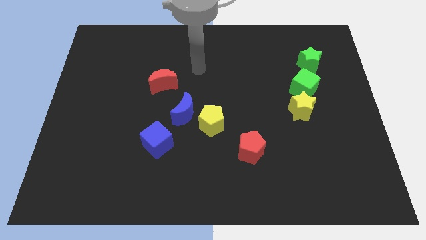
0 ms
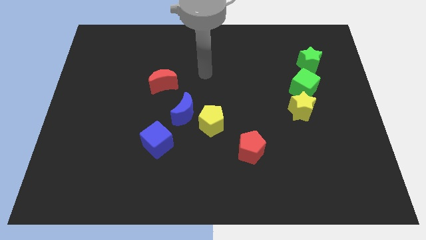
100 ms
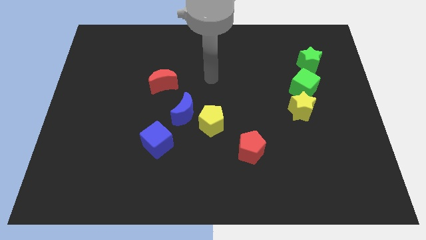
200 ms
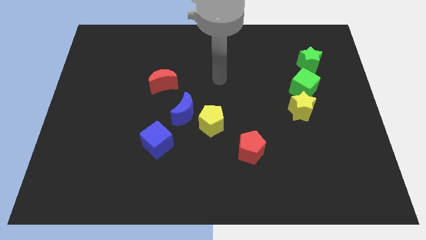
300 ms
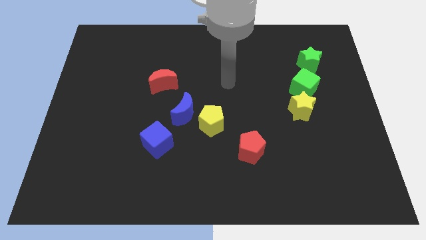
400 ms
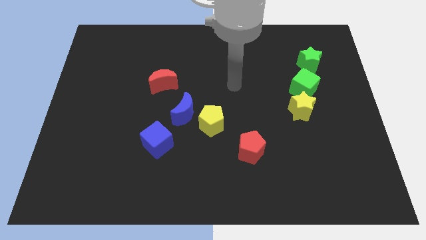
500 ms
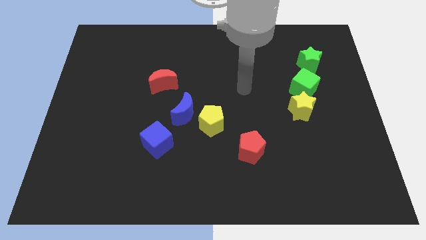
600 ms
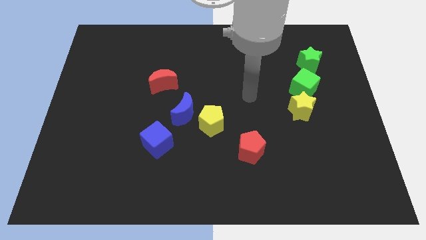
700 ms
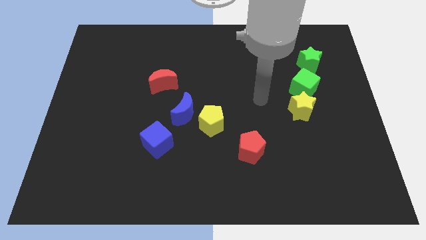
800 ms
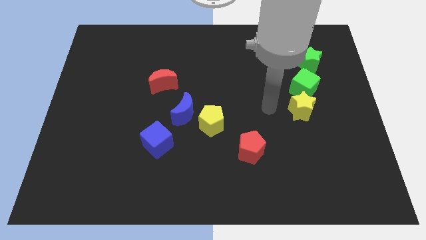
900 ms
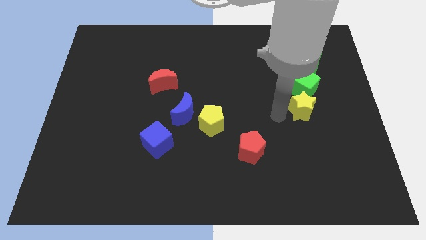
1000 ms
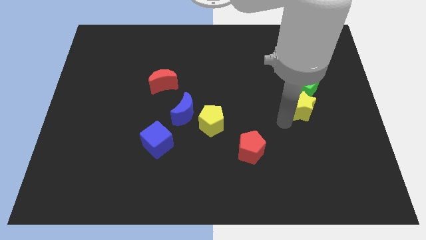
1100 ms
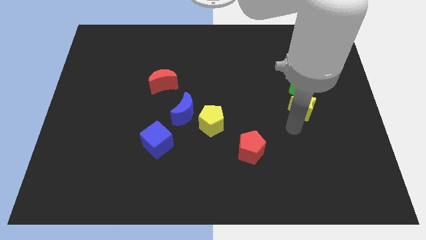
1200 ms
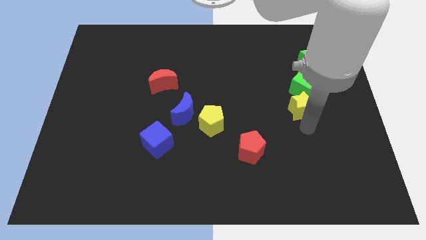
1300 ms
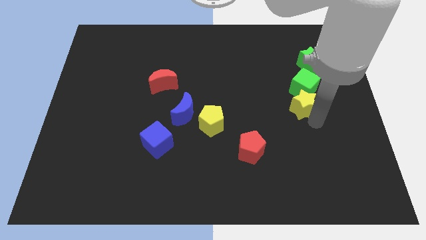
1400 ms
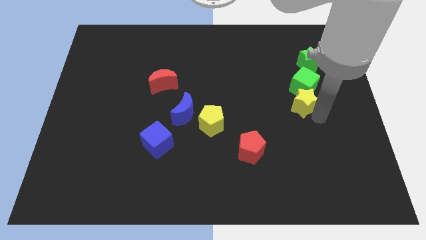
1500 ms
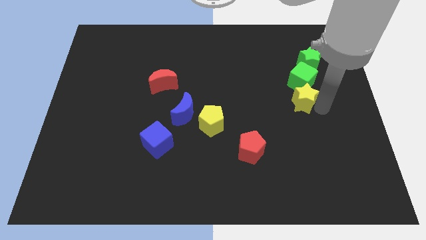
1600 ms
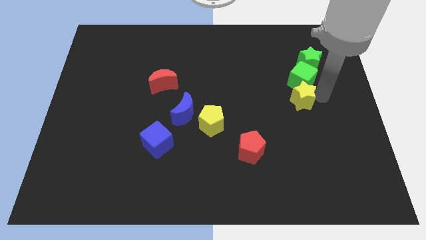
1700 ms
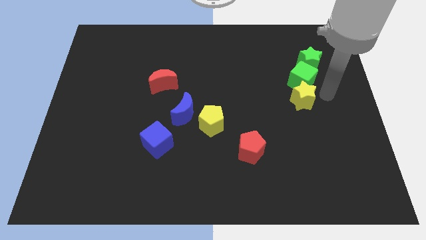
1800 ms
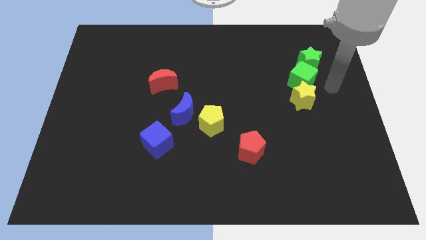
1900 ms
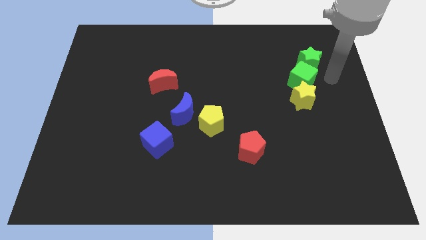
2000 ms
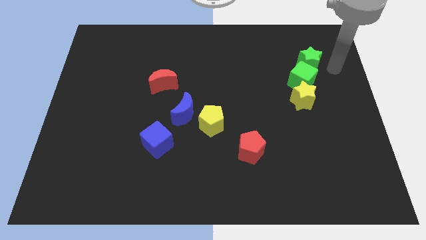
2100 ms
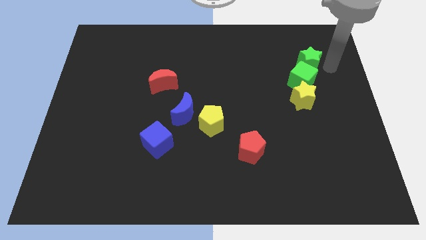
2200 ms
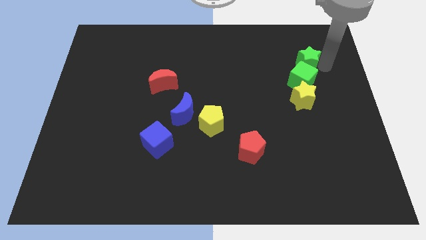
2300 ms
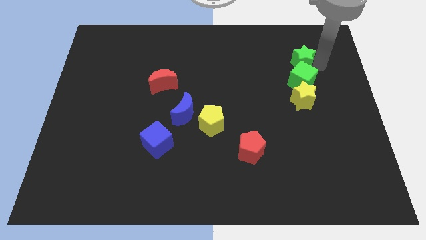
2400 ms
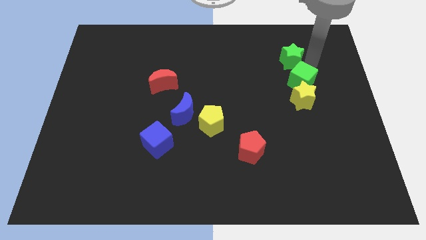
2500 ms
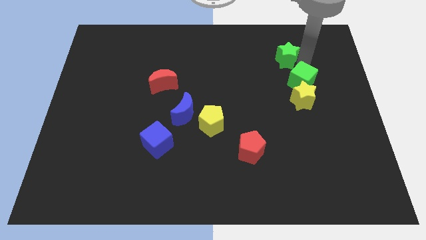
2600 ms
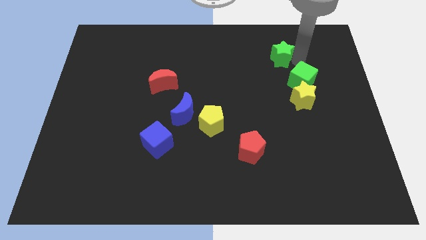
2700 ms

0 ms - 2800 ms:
slightly push the green star left

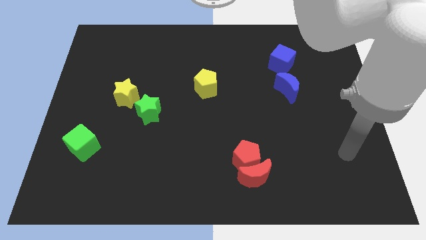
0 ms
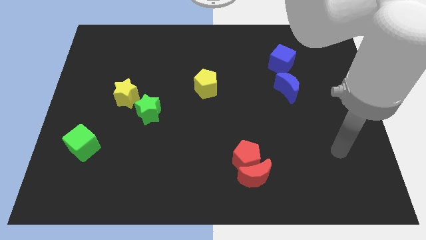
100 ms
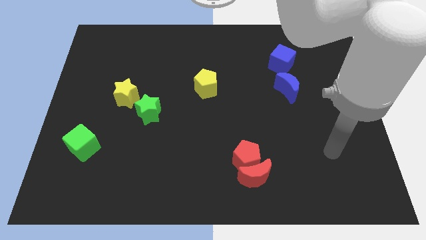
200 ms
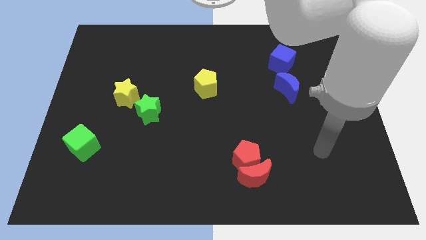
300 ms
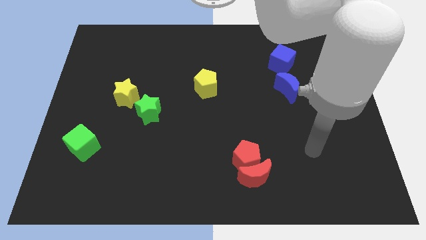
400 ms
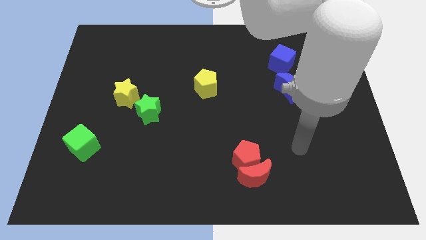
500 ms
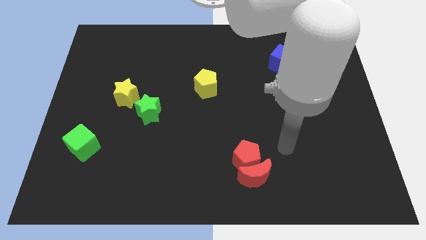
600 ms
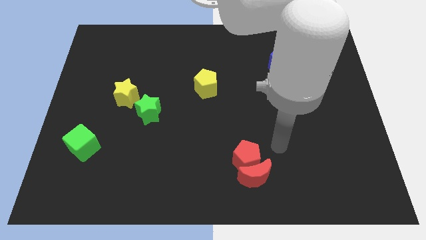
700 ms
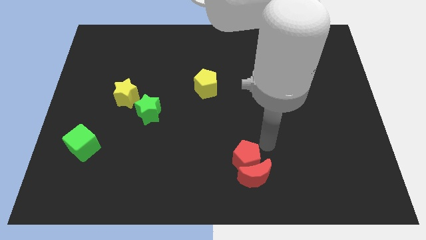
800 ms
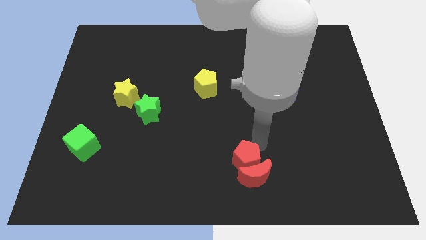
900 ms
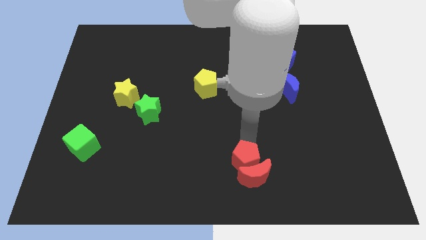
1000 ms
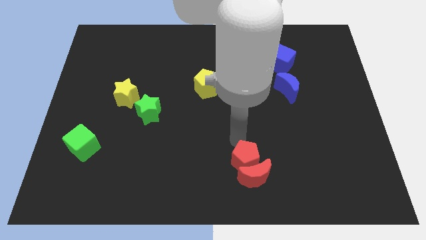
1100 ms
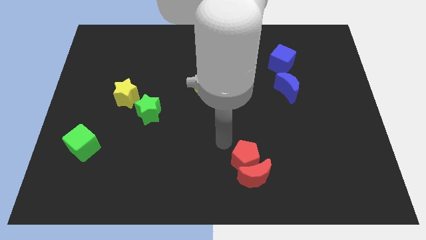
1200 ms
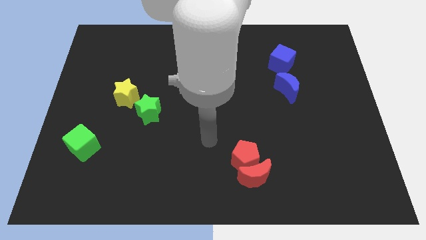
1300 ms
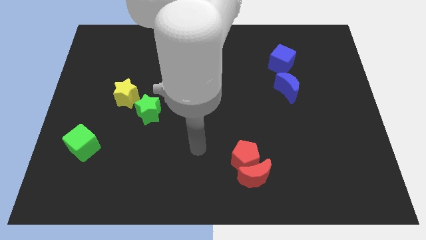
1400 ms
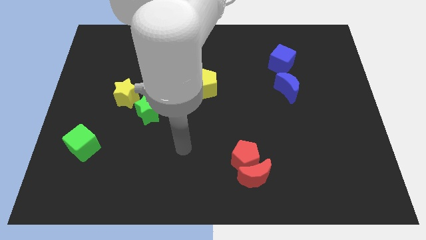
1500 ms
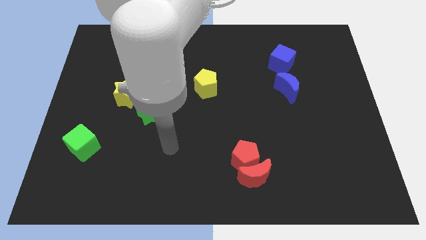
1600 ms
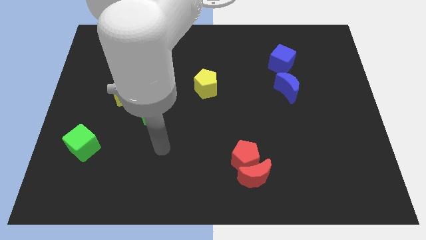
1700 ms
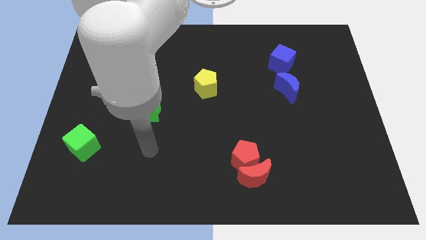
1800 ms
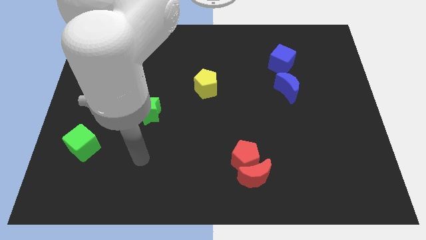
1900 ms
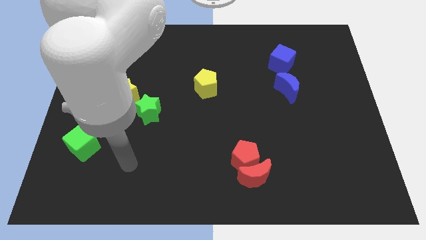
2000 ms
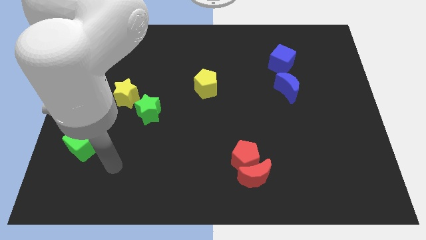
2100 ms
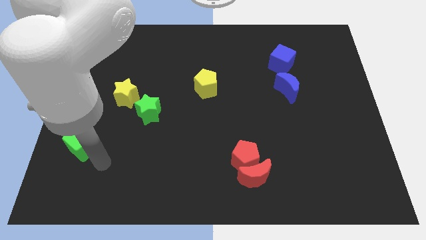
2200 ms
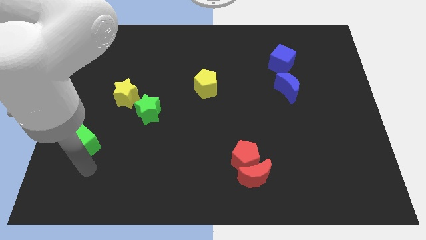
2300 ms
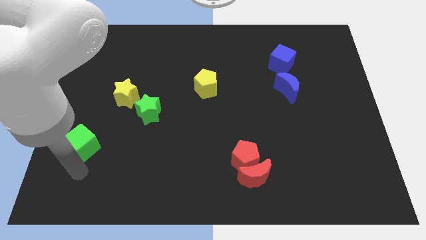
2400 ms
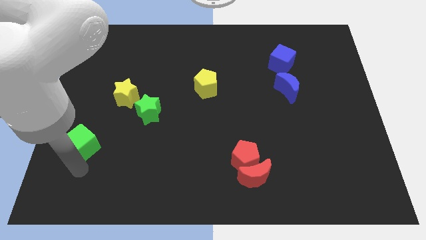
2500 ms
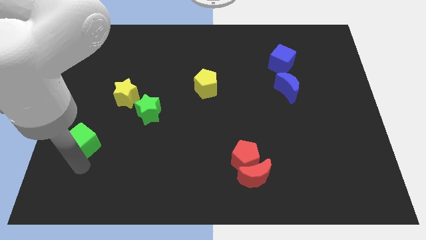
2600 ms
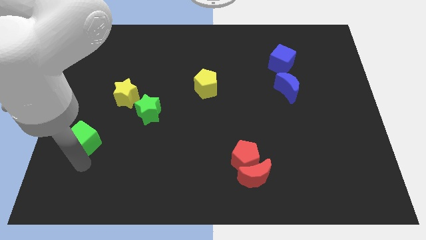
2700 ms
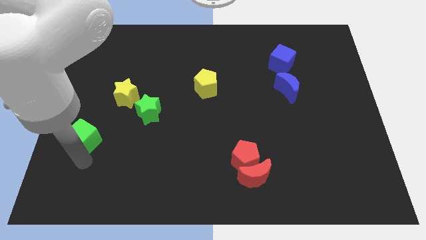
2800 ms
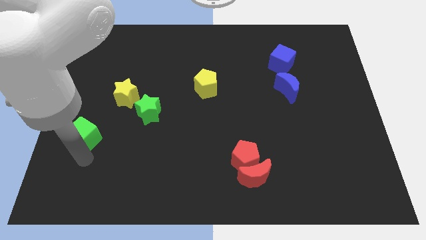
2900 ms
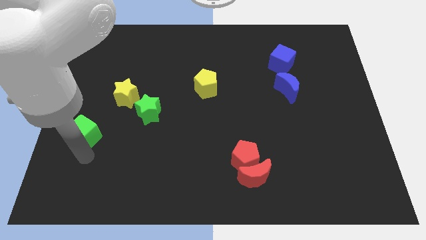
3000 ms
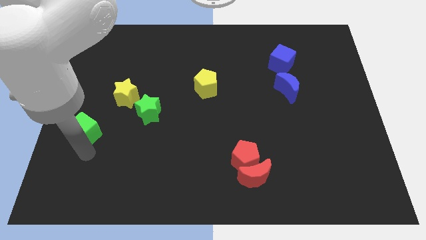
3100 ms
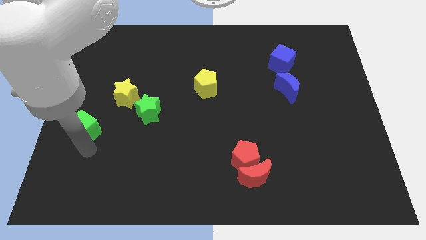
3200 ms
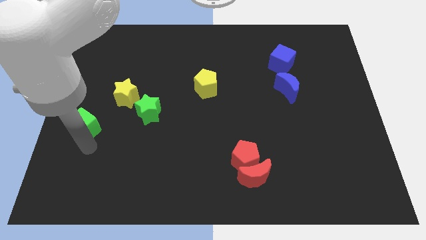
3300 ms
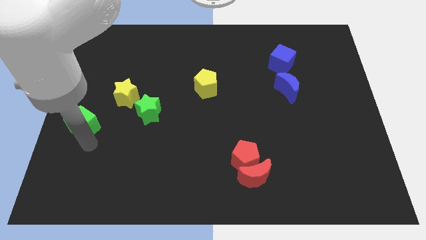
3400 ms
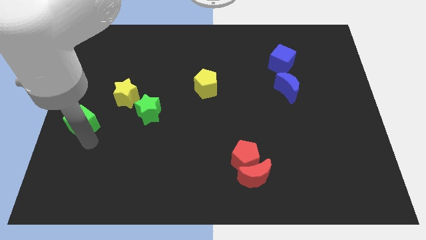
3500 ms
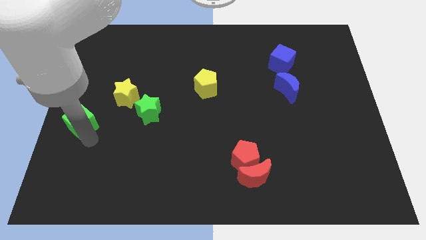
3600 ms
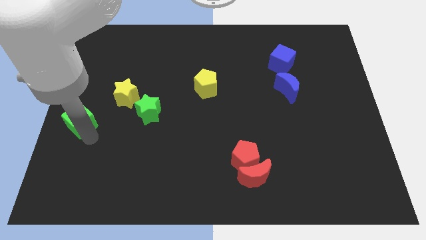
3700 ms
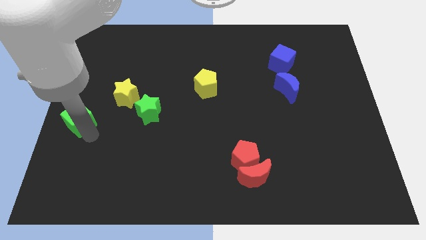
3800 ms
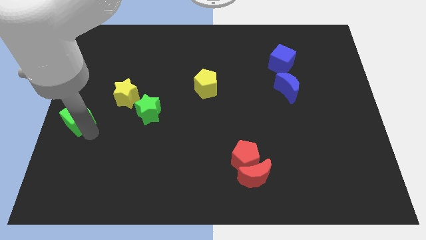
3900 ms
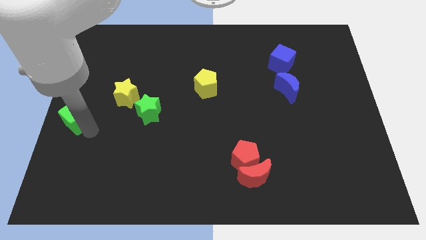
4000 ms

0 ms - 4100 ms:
push the green cube up somewhat

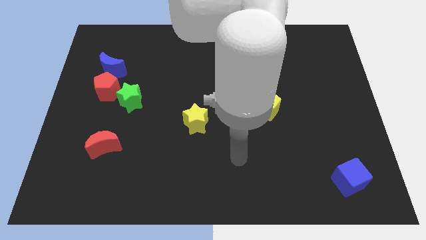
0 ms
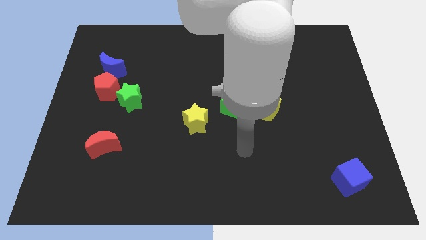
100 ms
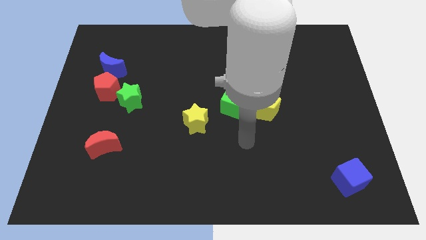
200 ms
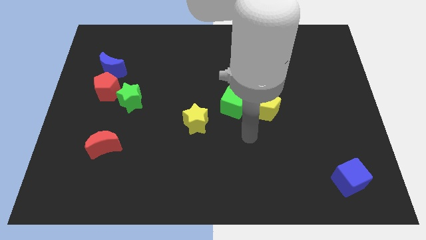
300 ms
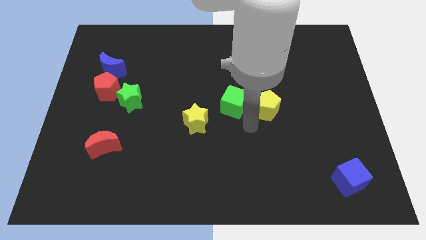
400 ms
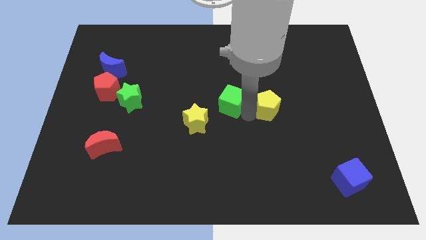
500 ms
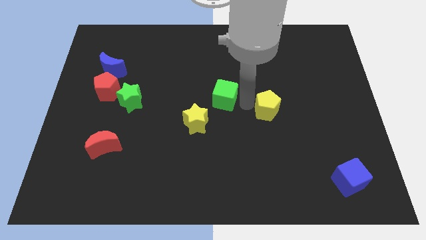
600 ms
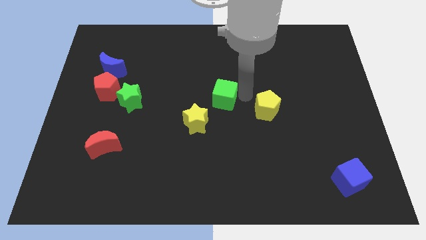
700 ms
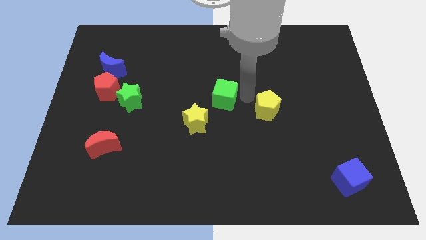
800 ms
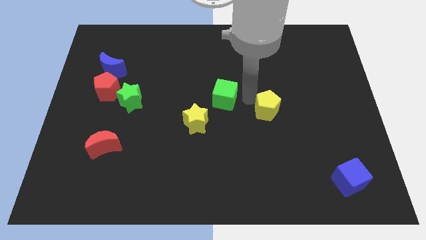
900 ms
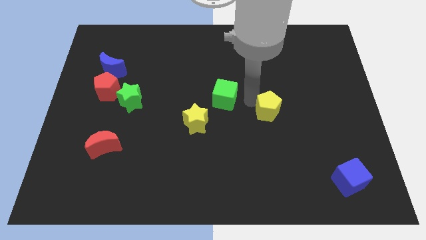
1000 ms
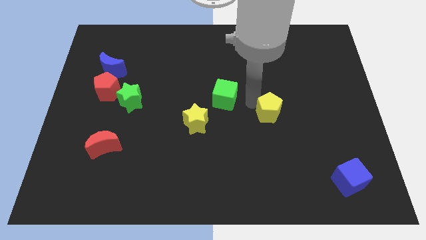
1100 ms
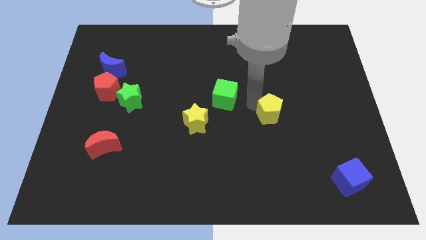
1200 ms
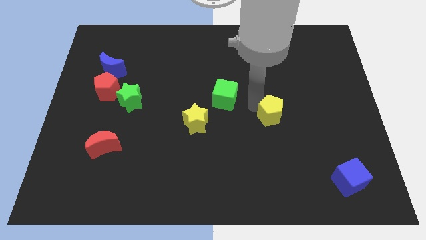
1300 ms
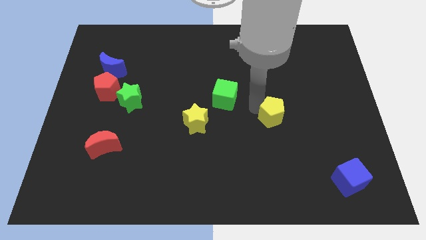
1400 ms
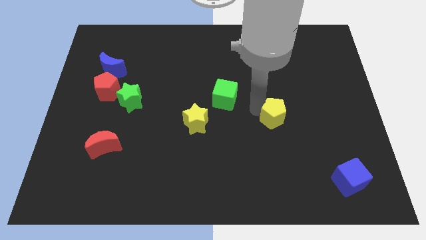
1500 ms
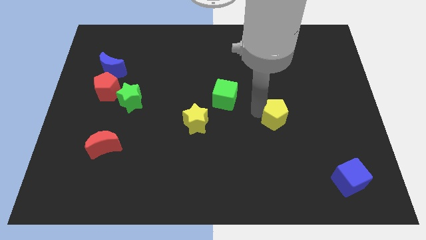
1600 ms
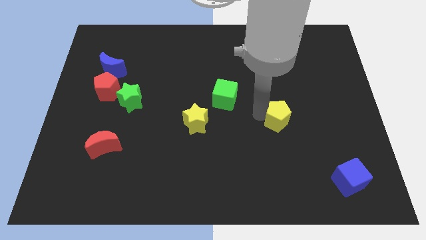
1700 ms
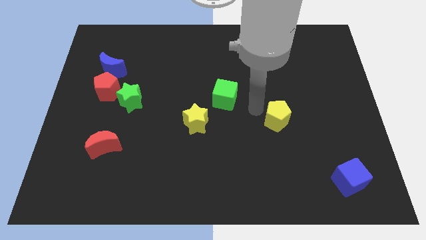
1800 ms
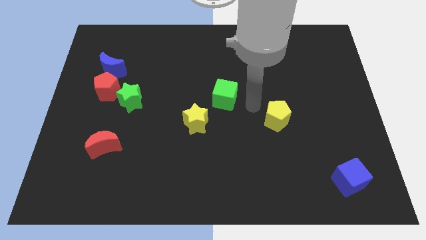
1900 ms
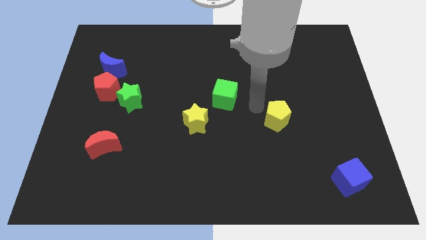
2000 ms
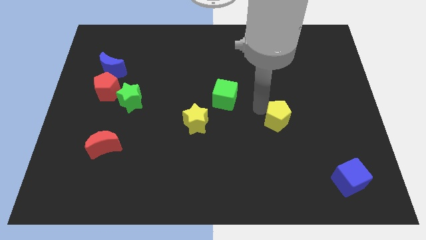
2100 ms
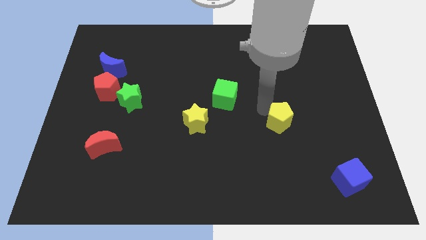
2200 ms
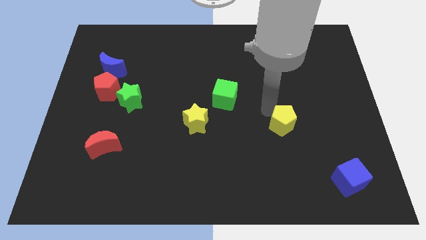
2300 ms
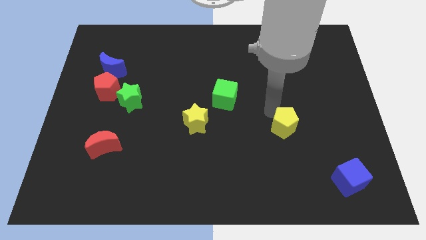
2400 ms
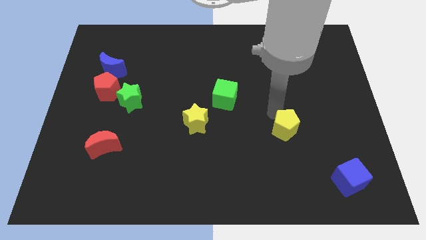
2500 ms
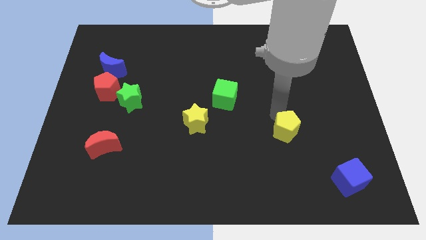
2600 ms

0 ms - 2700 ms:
slide the yellow pentagon downwards and to the right a bit
